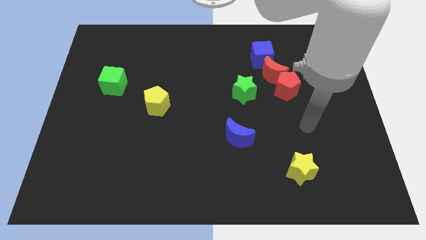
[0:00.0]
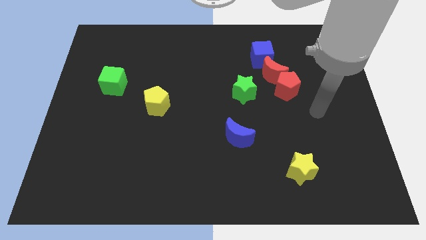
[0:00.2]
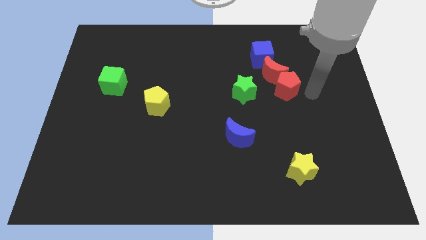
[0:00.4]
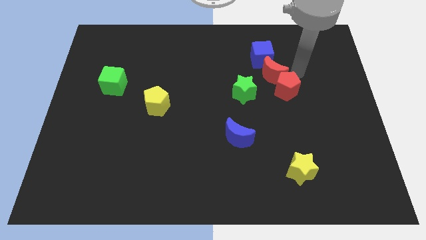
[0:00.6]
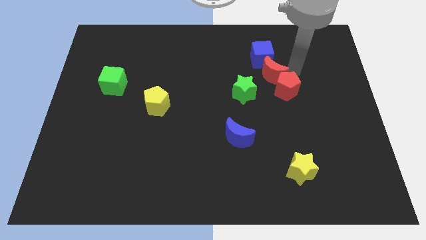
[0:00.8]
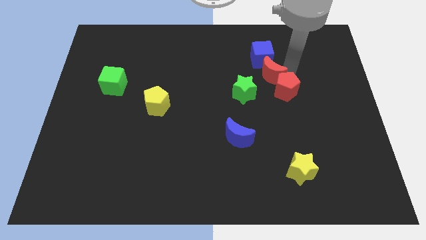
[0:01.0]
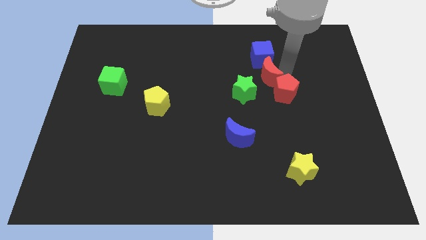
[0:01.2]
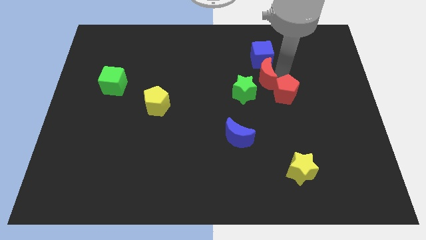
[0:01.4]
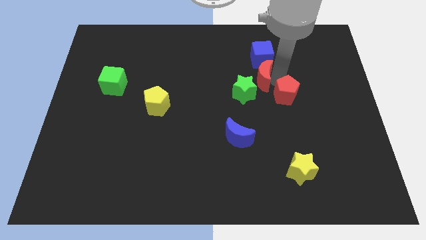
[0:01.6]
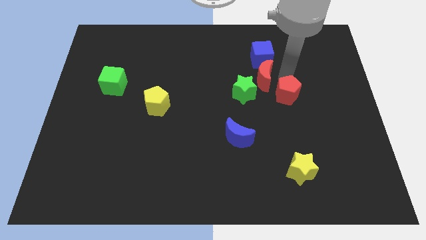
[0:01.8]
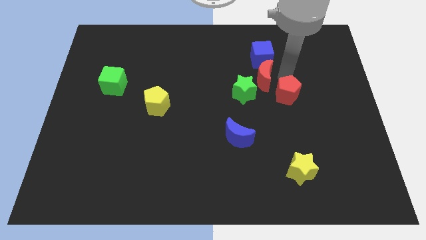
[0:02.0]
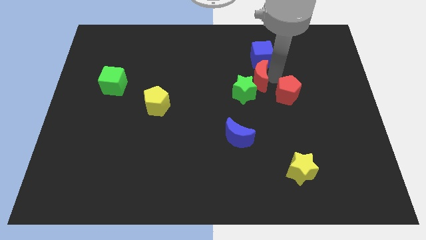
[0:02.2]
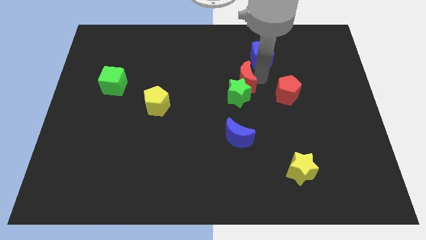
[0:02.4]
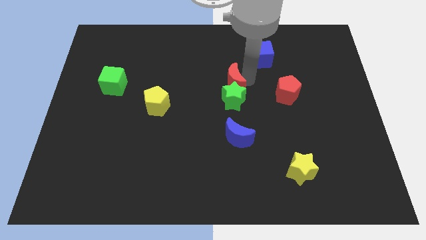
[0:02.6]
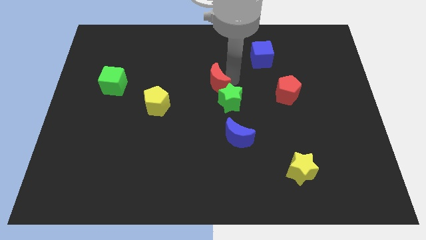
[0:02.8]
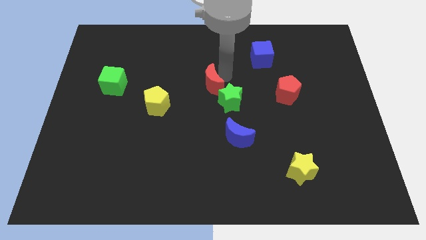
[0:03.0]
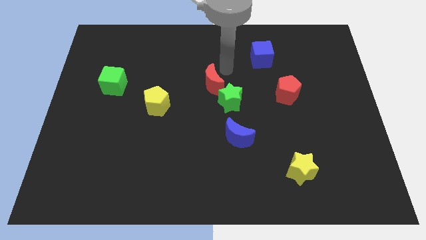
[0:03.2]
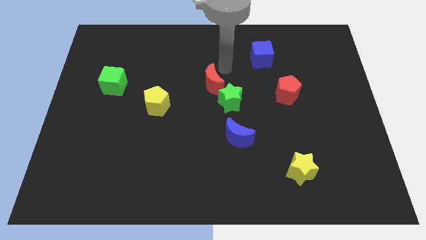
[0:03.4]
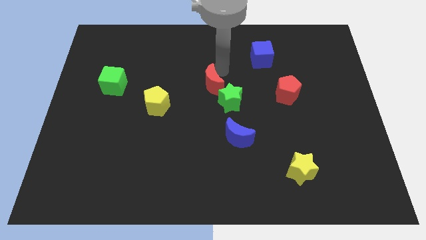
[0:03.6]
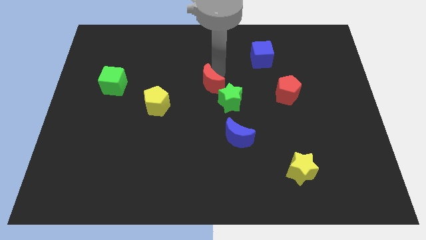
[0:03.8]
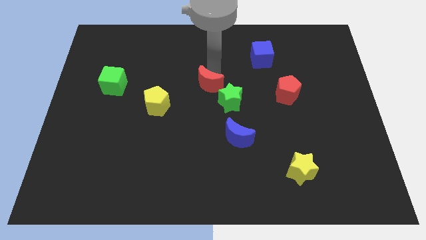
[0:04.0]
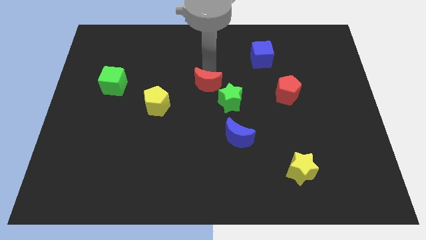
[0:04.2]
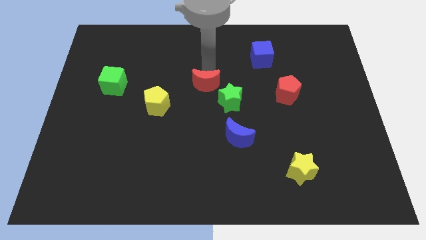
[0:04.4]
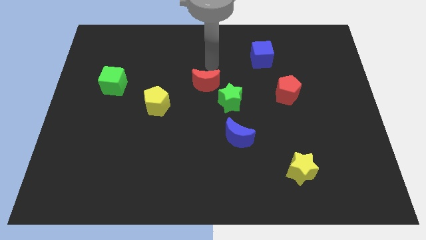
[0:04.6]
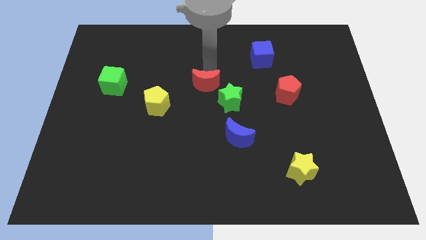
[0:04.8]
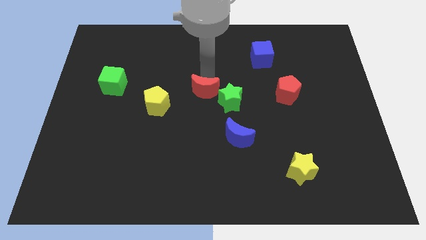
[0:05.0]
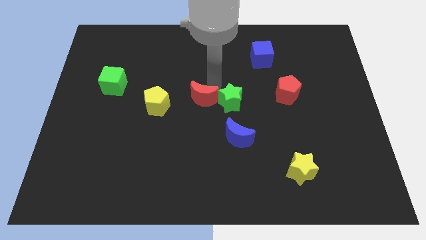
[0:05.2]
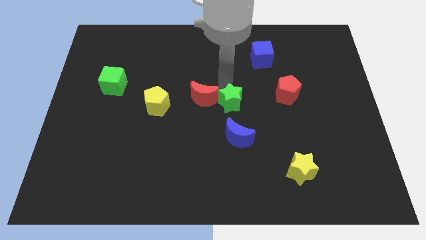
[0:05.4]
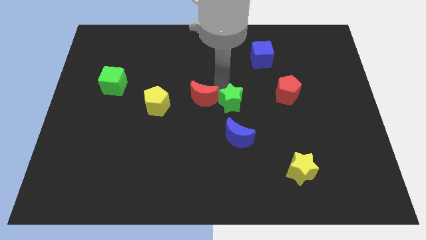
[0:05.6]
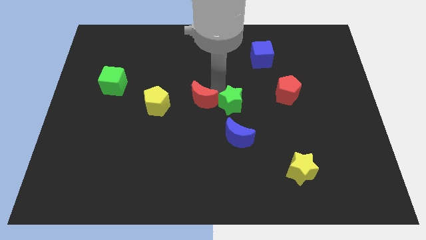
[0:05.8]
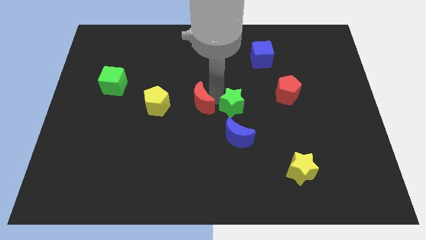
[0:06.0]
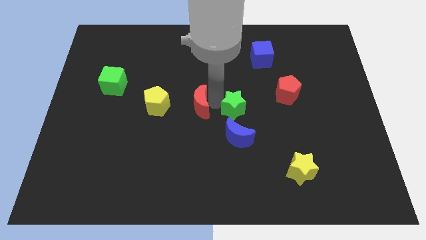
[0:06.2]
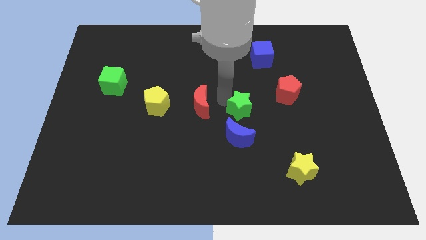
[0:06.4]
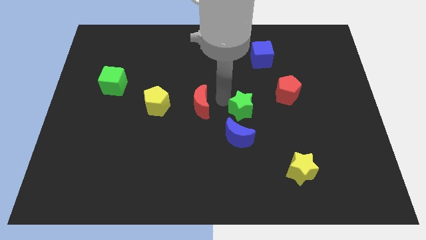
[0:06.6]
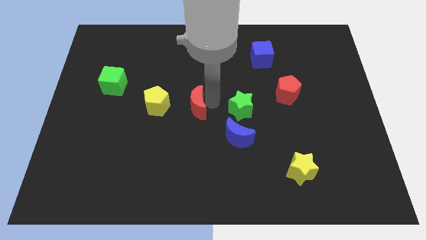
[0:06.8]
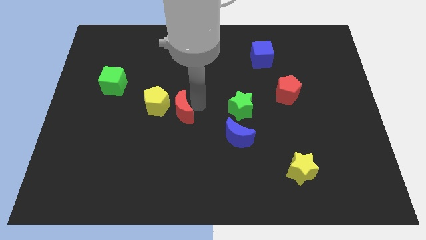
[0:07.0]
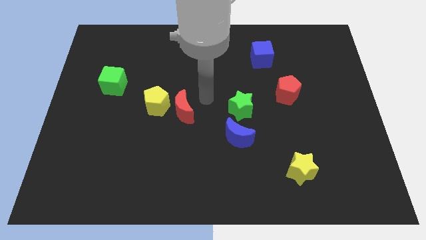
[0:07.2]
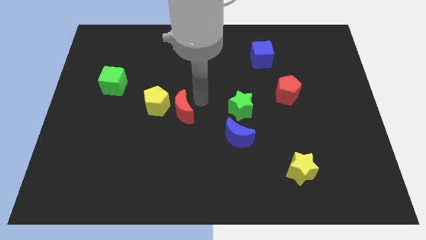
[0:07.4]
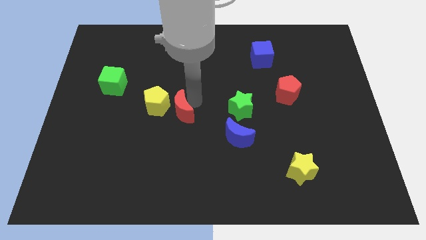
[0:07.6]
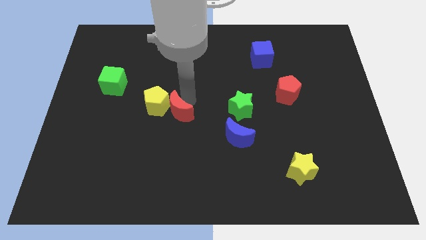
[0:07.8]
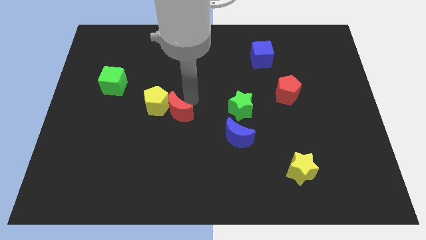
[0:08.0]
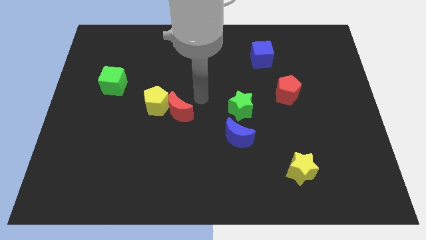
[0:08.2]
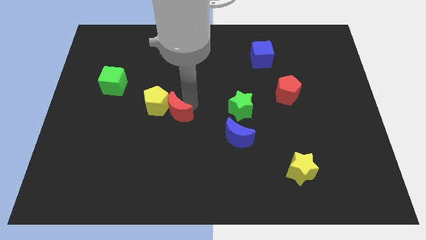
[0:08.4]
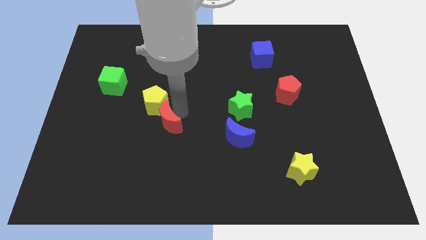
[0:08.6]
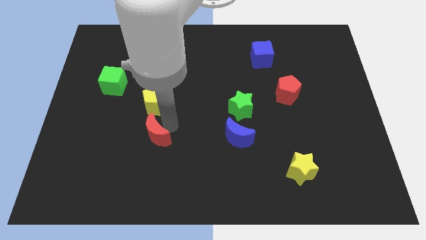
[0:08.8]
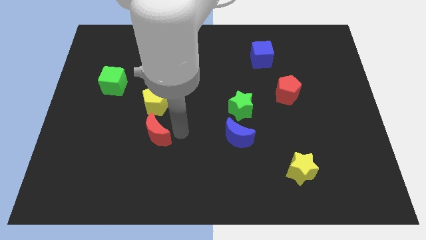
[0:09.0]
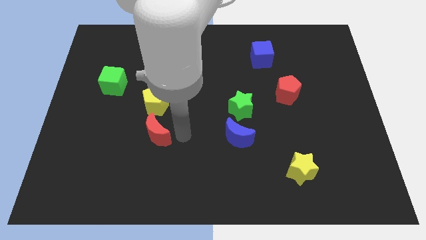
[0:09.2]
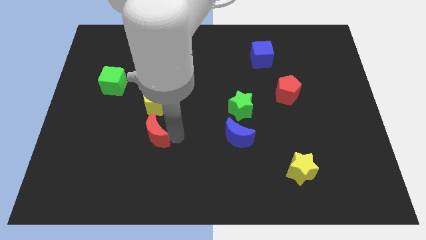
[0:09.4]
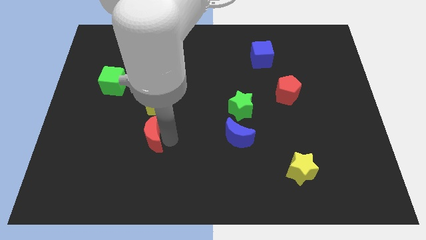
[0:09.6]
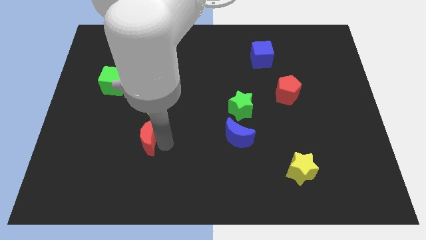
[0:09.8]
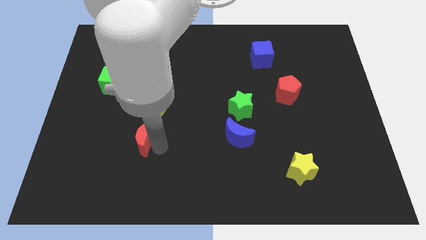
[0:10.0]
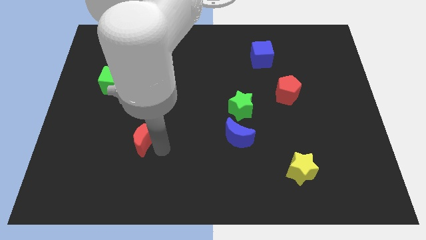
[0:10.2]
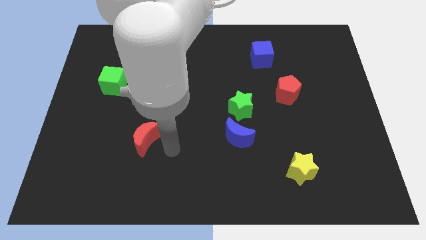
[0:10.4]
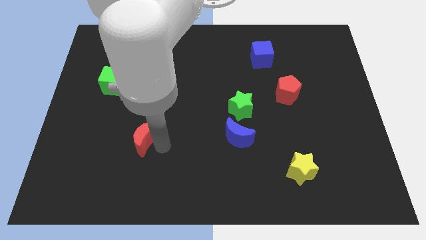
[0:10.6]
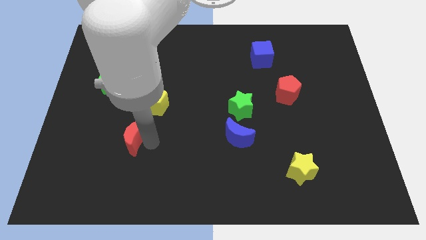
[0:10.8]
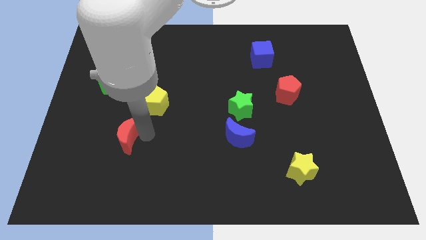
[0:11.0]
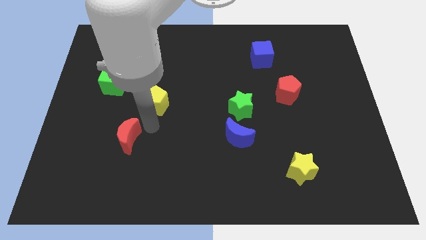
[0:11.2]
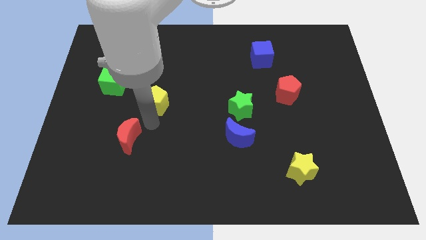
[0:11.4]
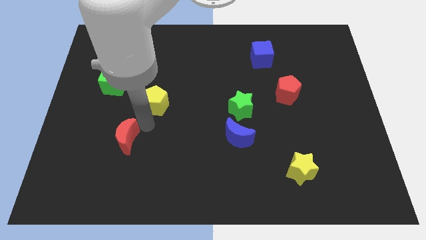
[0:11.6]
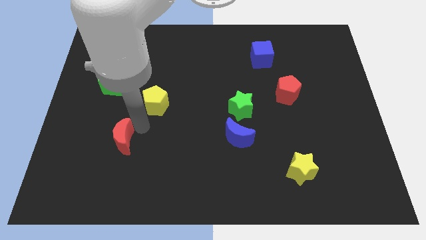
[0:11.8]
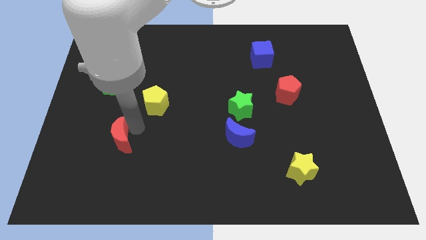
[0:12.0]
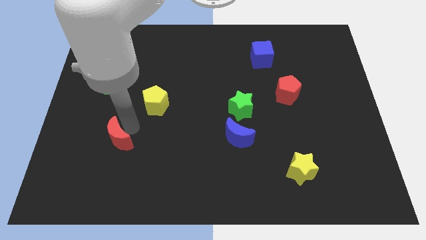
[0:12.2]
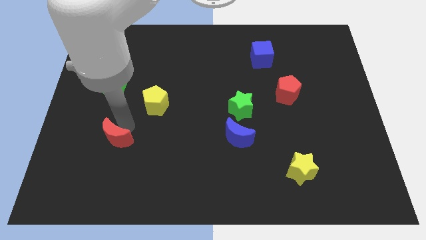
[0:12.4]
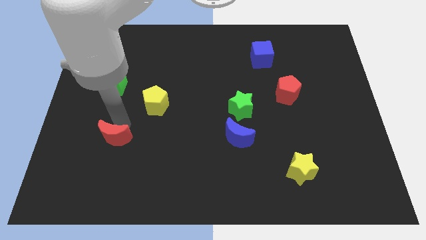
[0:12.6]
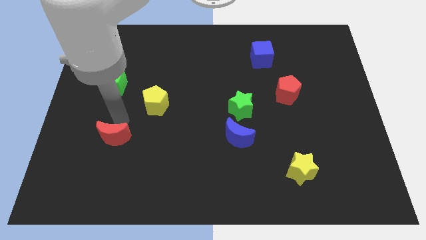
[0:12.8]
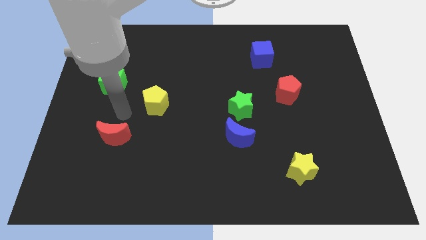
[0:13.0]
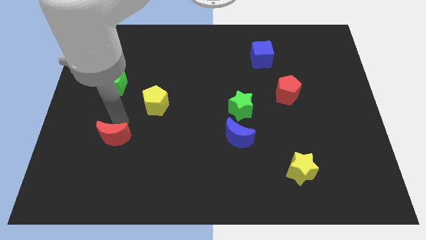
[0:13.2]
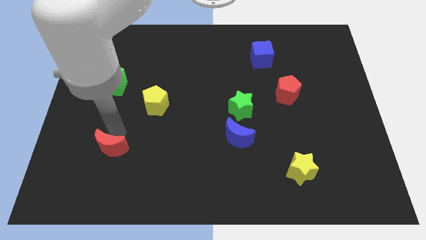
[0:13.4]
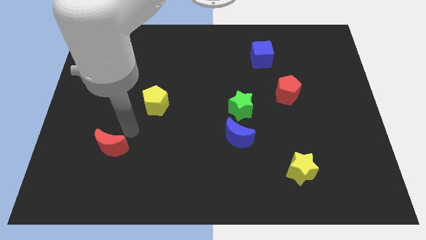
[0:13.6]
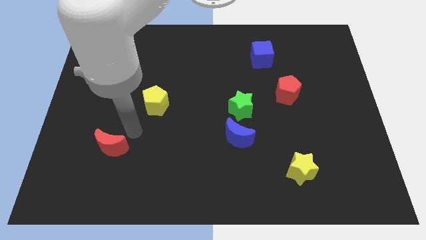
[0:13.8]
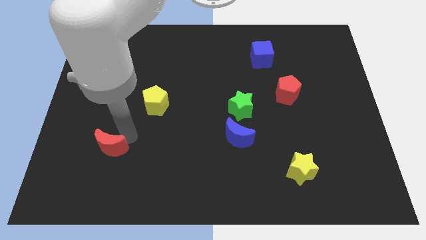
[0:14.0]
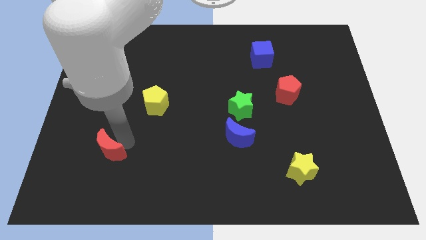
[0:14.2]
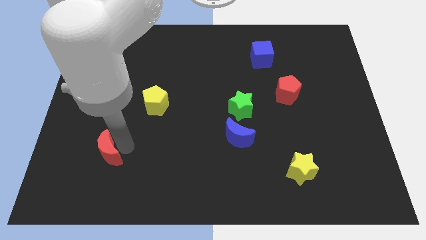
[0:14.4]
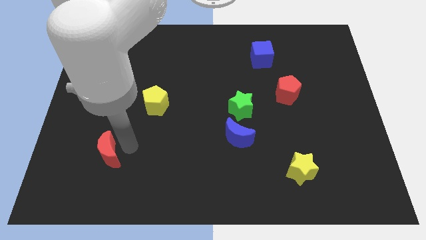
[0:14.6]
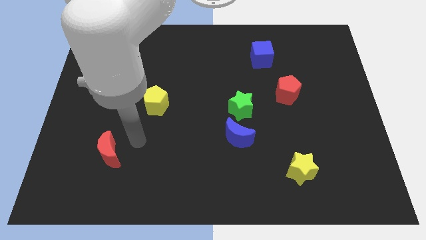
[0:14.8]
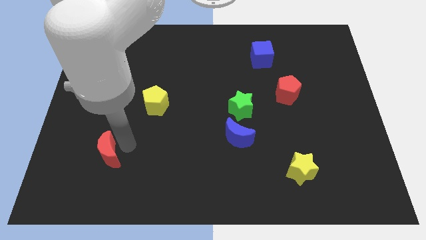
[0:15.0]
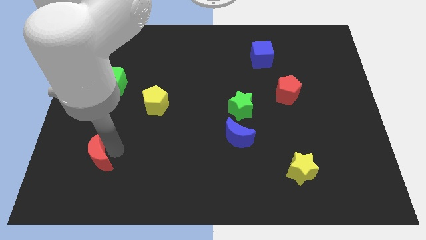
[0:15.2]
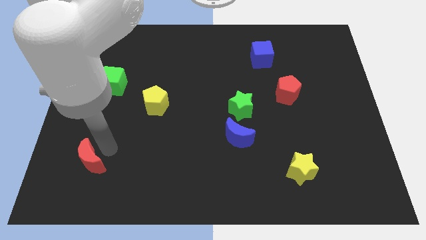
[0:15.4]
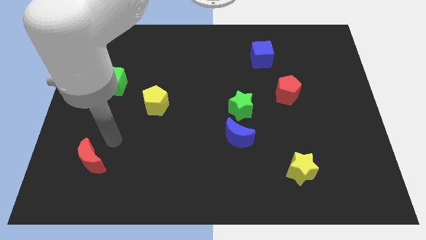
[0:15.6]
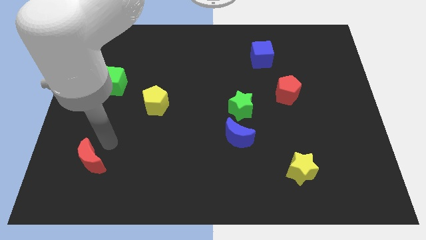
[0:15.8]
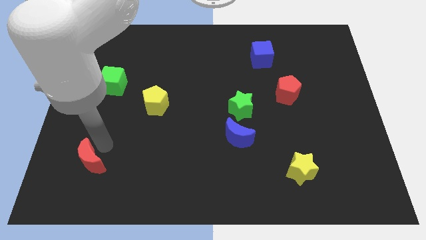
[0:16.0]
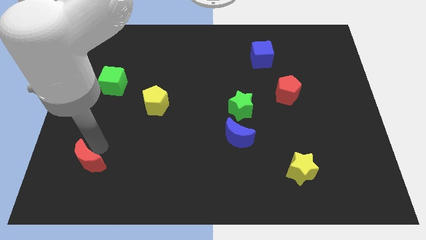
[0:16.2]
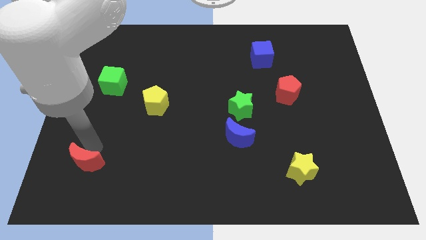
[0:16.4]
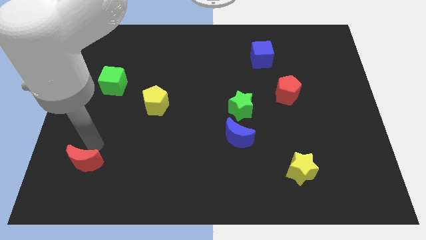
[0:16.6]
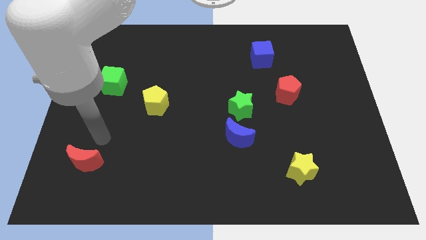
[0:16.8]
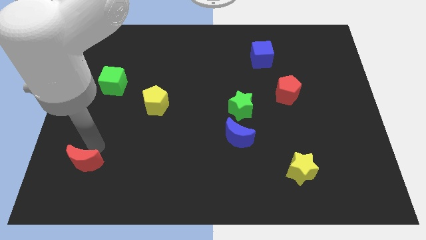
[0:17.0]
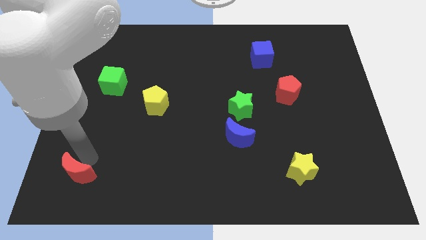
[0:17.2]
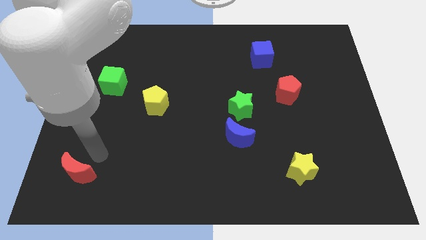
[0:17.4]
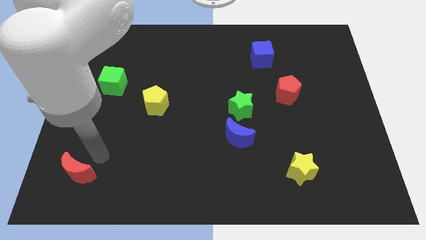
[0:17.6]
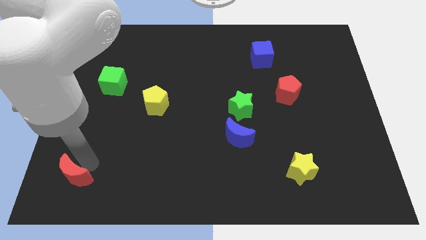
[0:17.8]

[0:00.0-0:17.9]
put the red moon to the bottom left of the board
